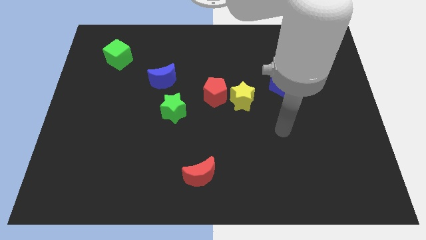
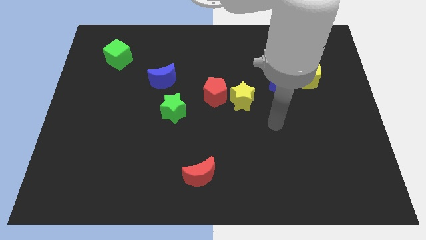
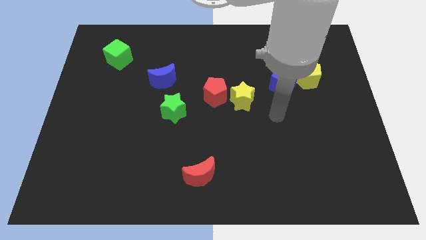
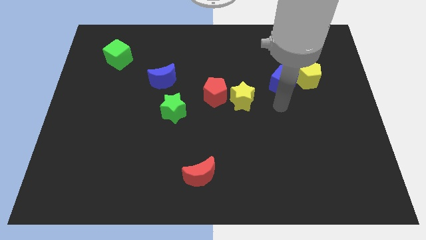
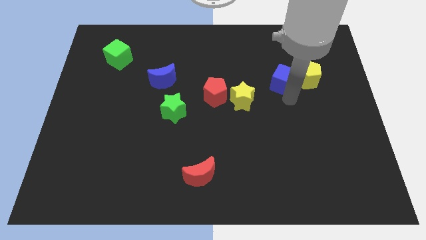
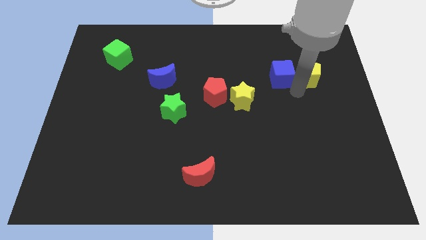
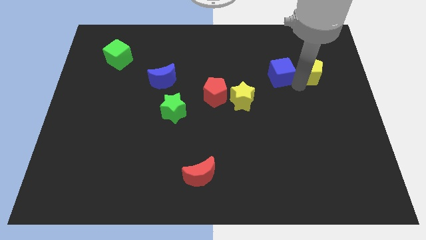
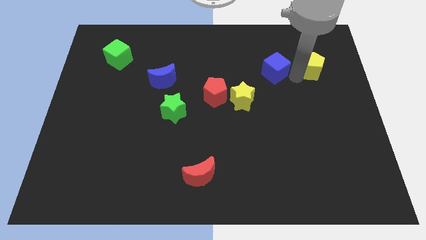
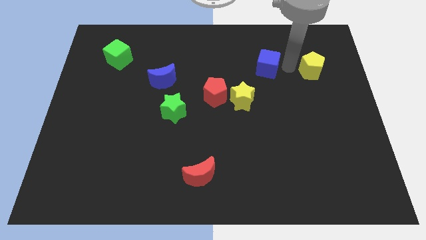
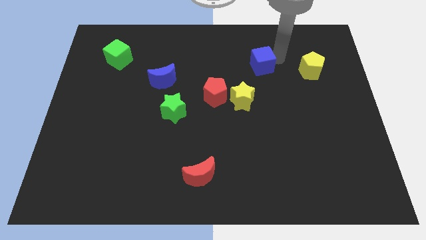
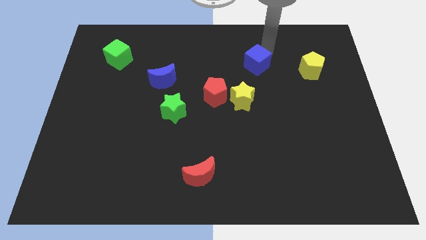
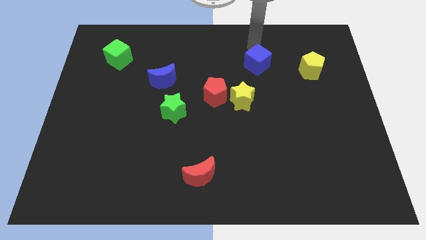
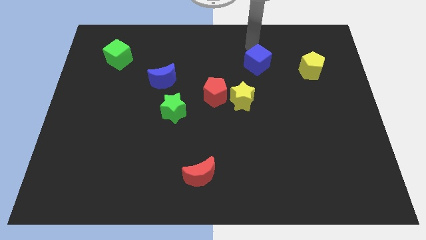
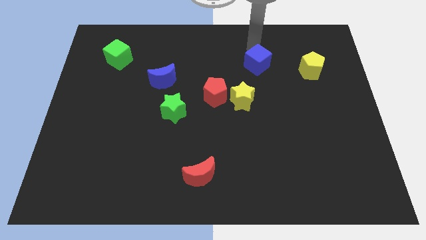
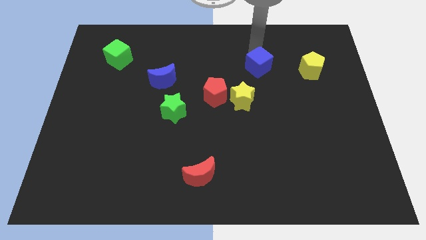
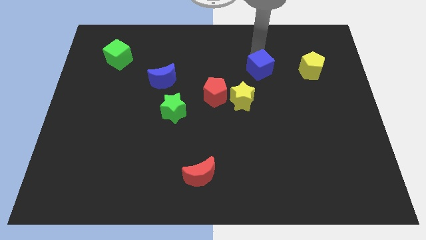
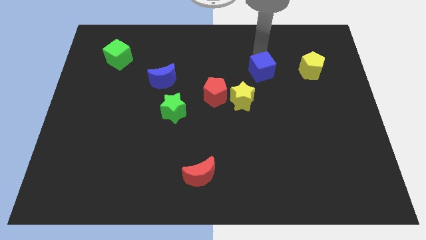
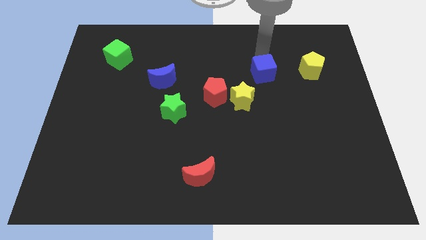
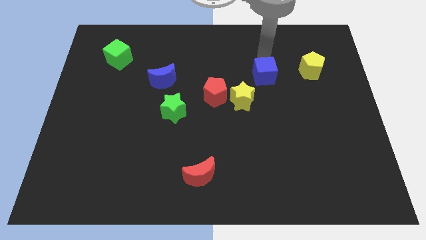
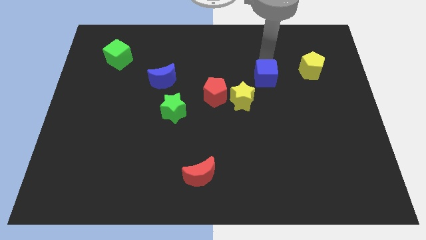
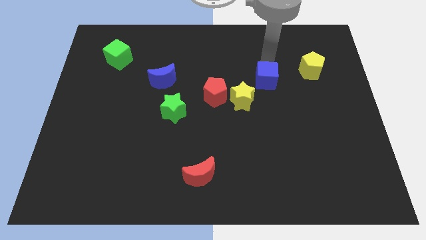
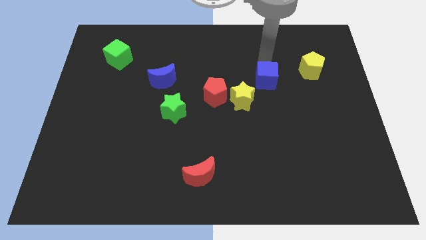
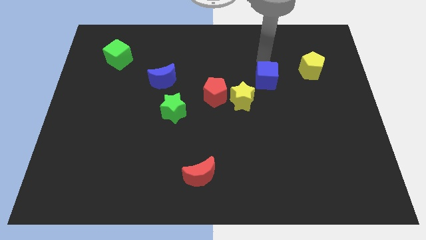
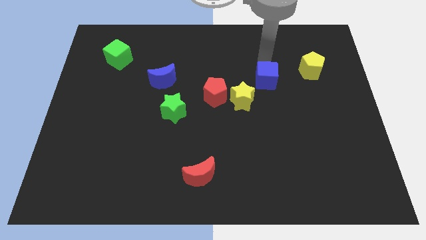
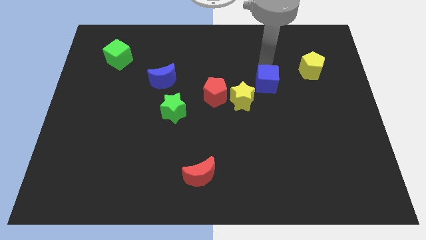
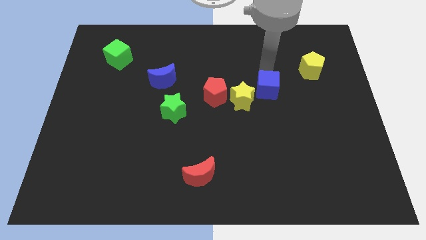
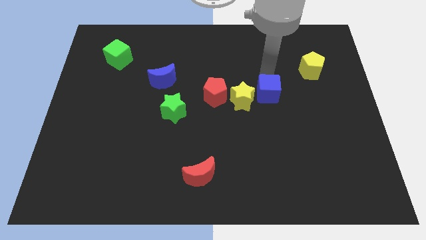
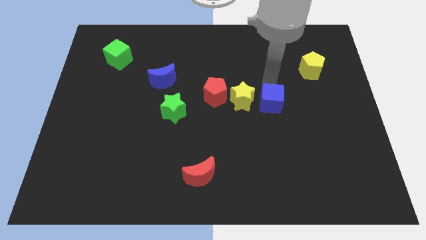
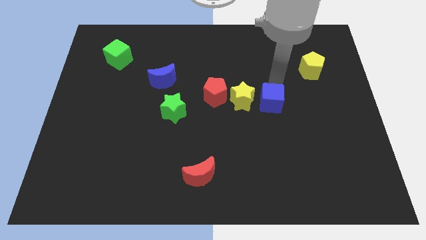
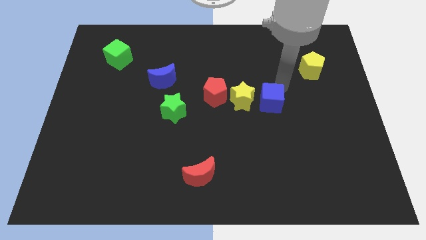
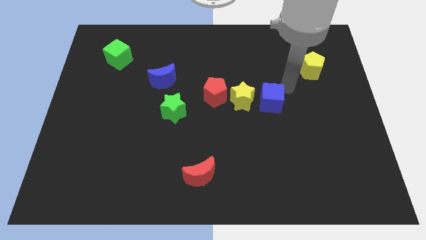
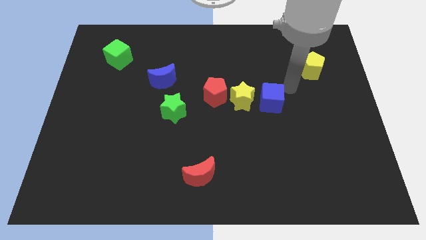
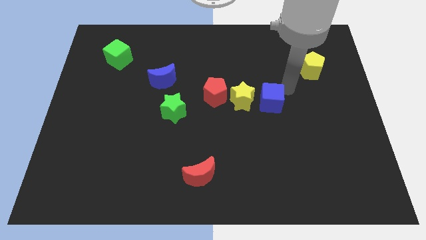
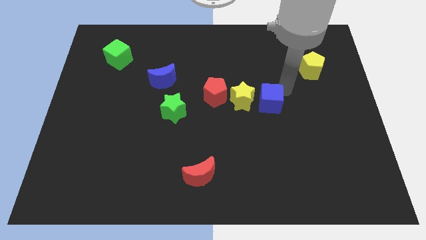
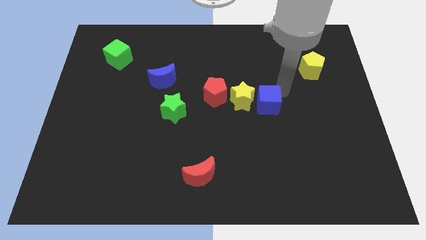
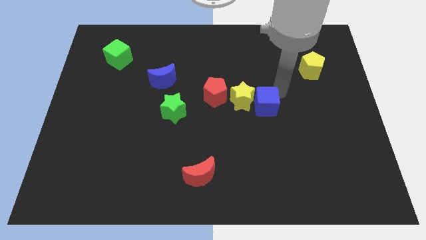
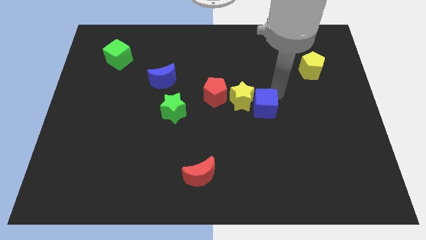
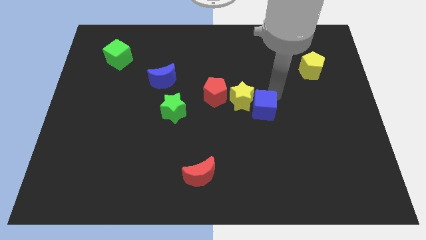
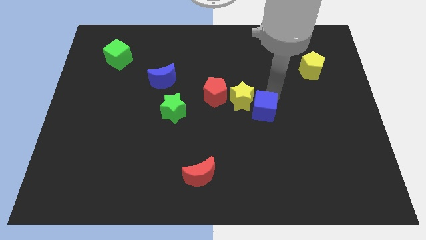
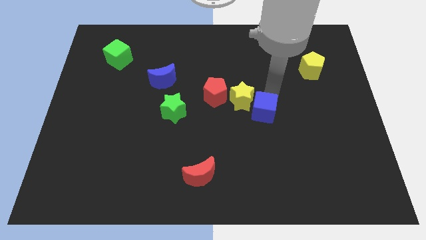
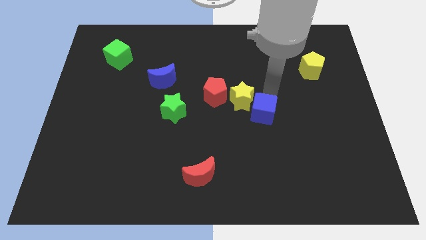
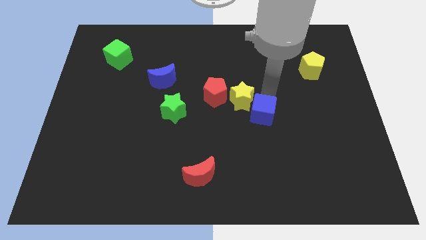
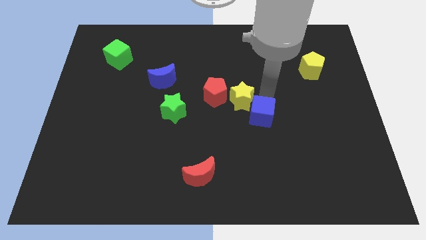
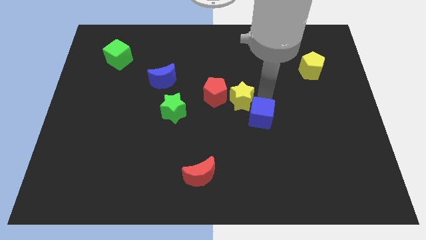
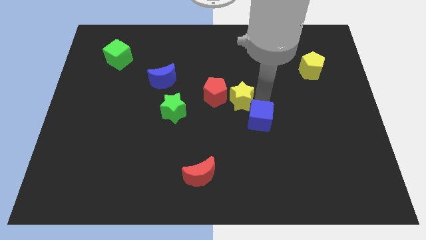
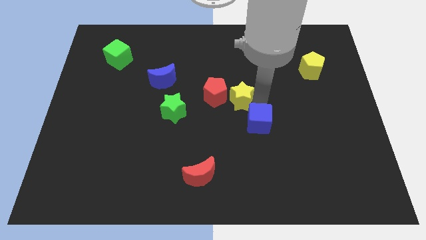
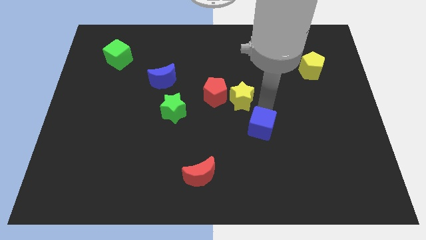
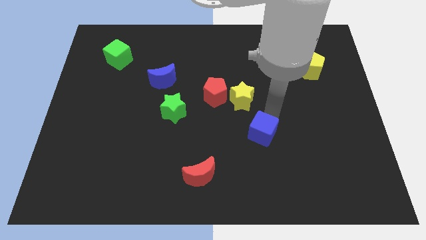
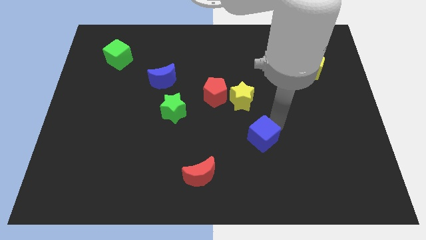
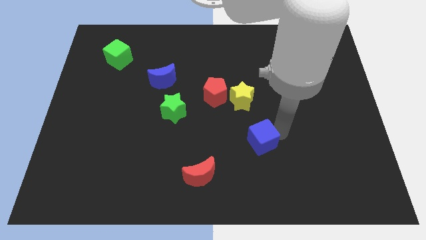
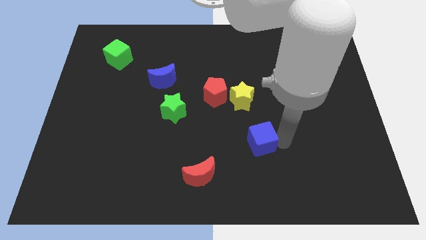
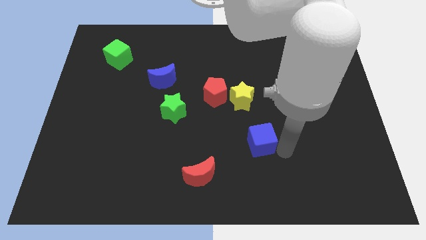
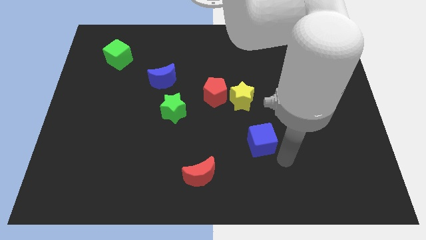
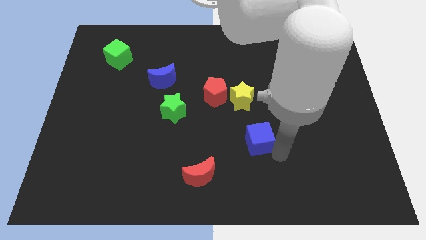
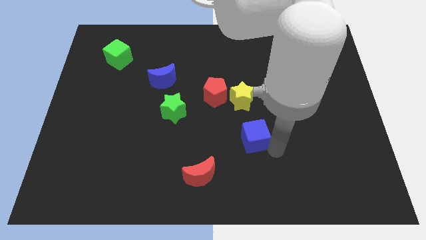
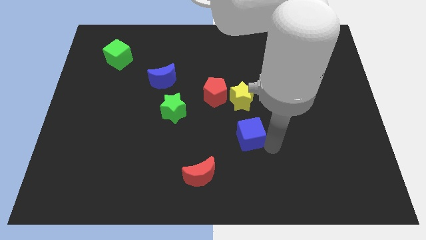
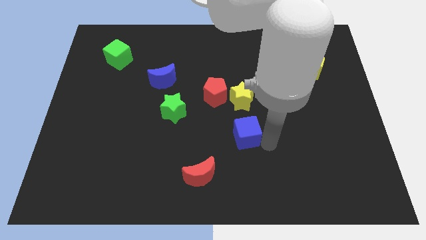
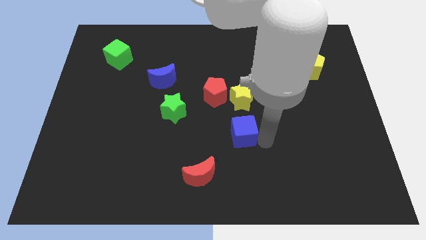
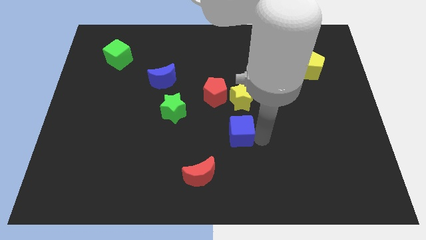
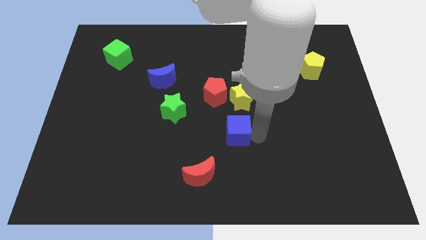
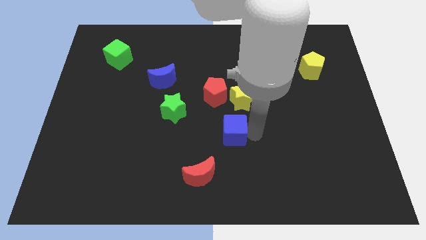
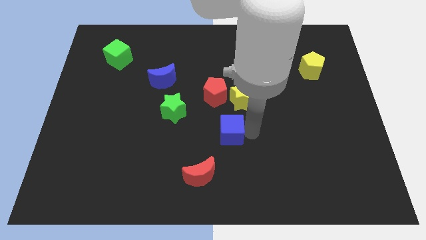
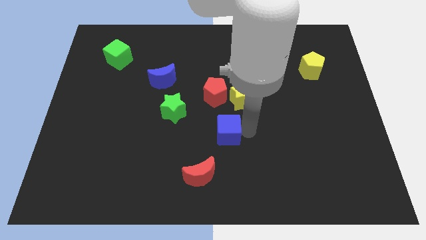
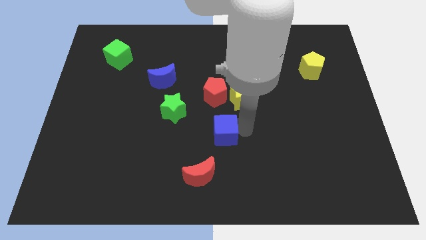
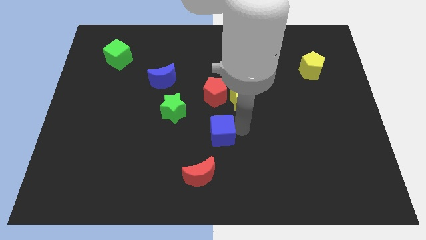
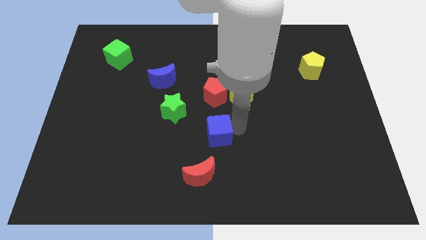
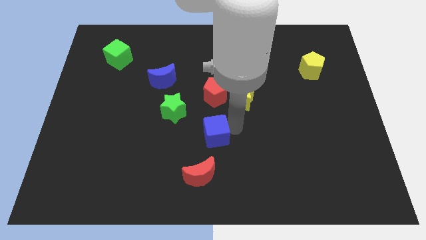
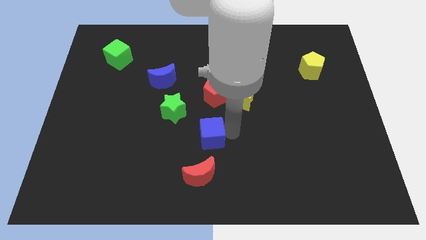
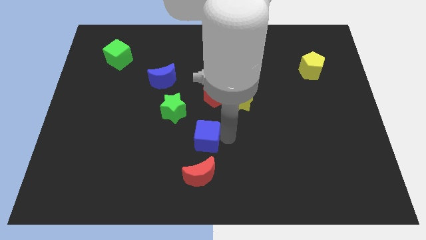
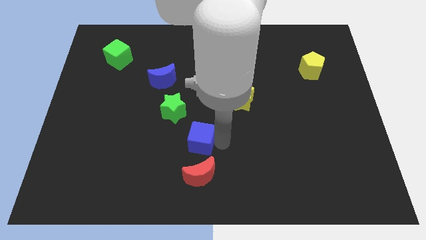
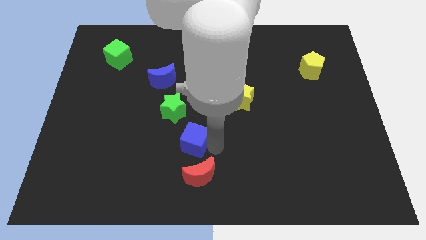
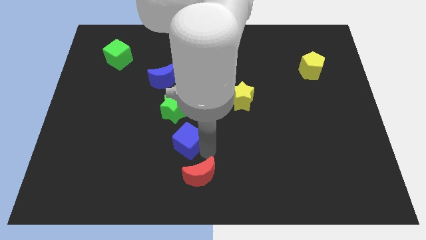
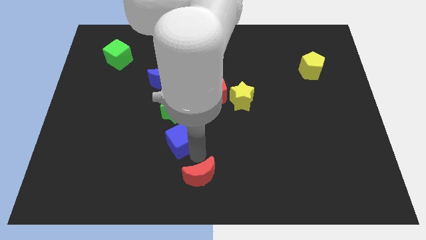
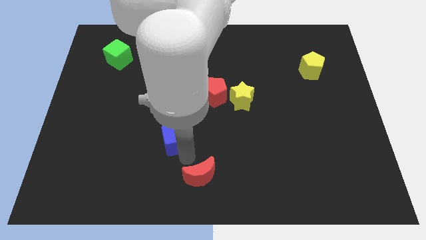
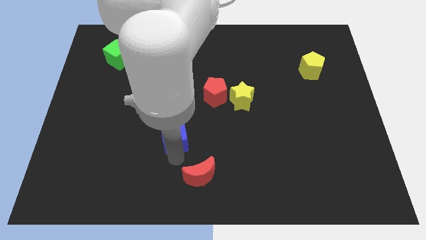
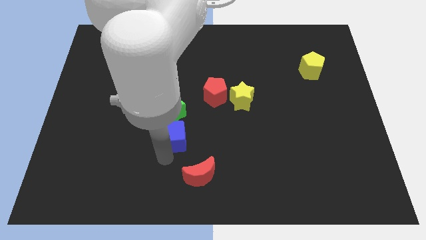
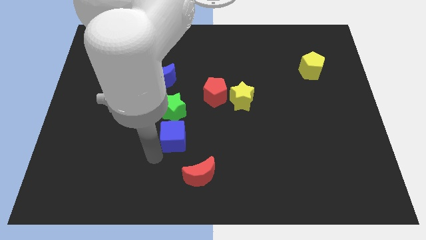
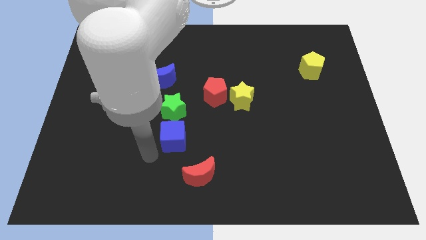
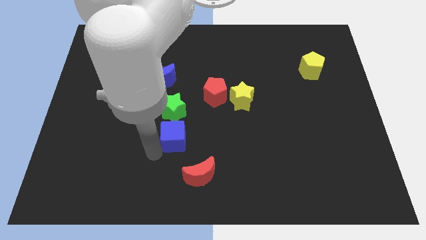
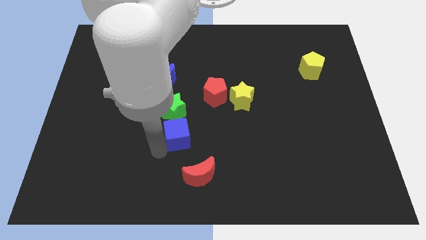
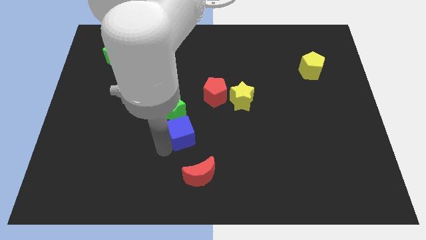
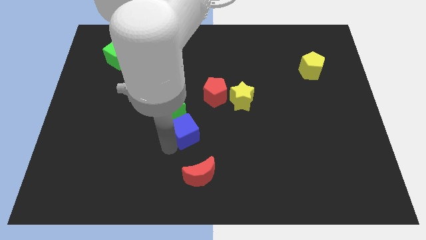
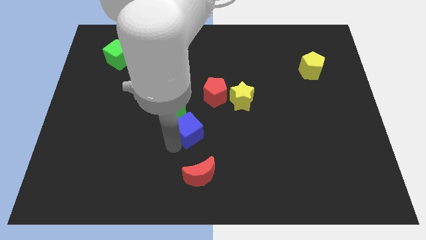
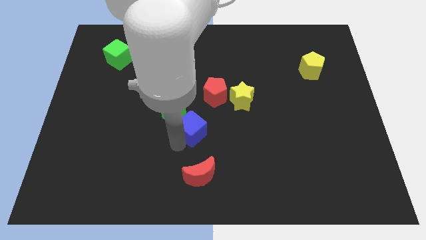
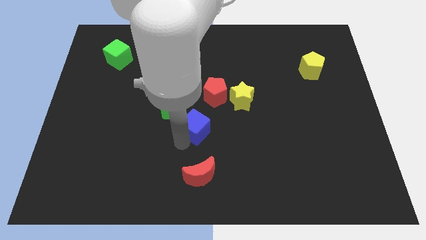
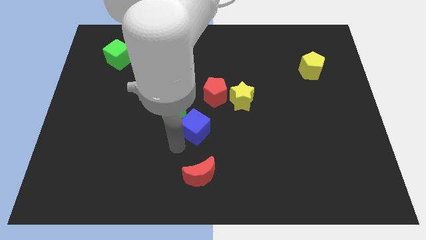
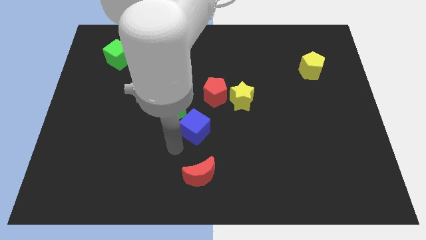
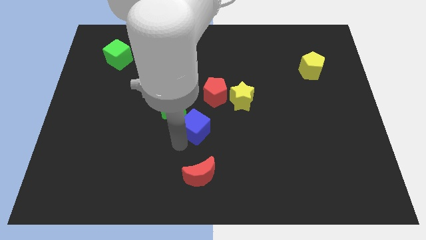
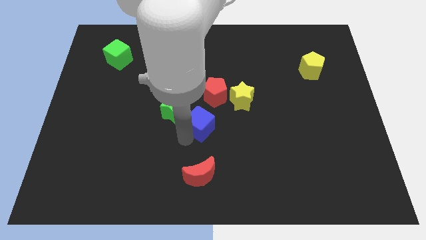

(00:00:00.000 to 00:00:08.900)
push the blue cube to the right of the green star
